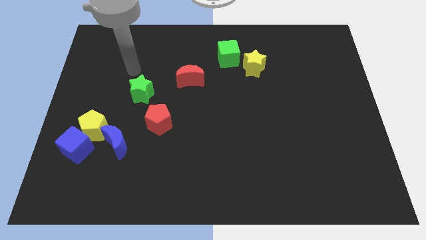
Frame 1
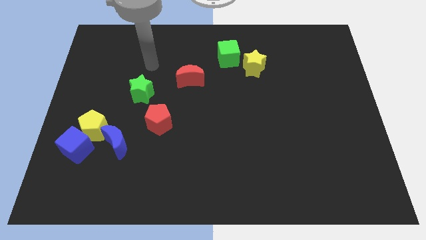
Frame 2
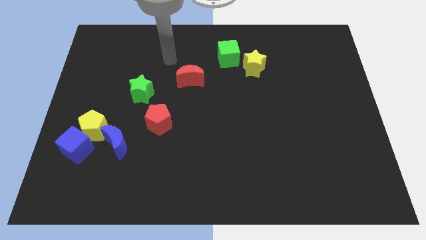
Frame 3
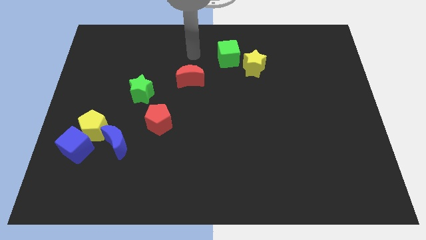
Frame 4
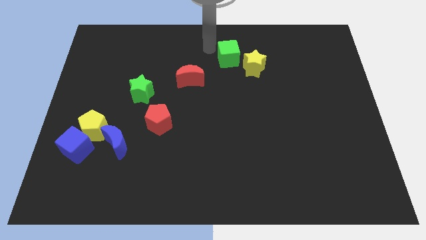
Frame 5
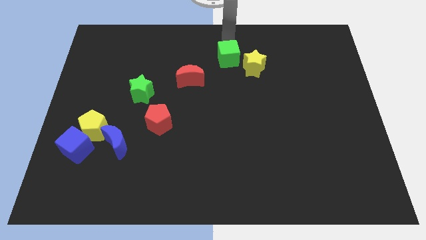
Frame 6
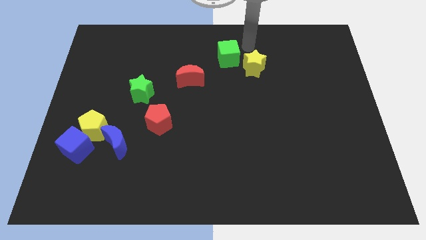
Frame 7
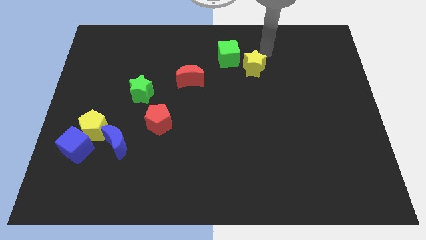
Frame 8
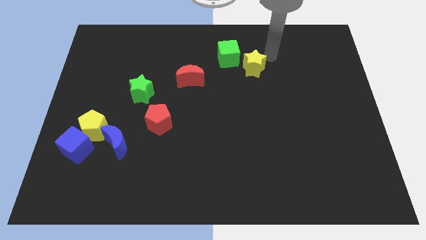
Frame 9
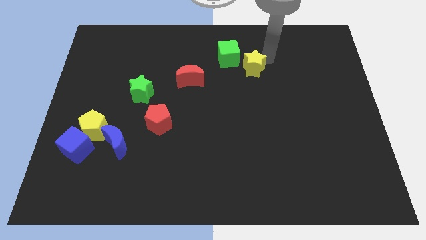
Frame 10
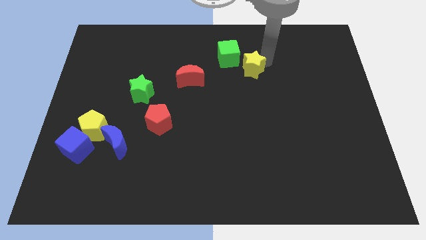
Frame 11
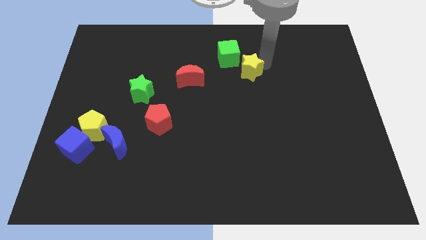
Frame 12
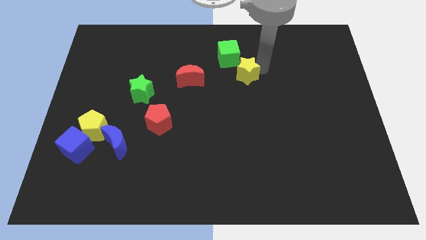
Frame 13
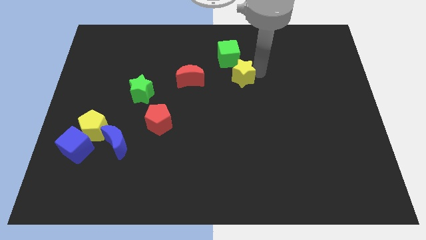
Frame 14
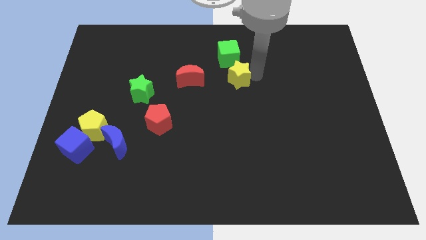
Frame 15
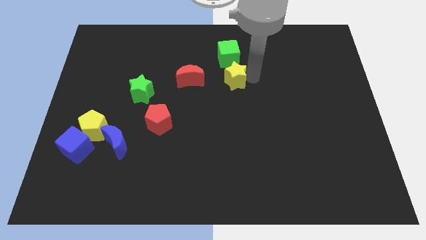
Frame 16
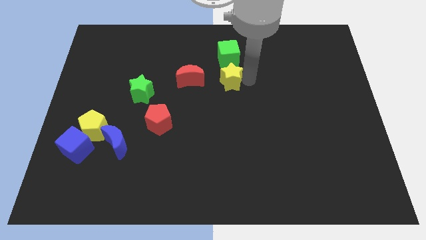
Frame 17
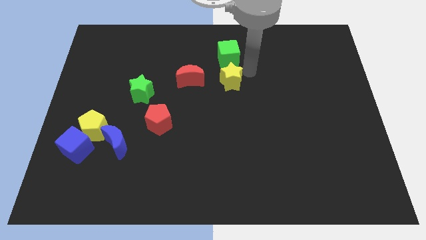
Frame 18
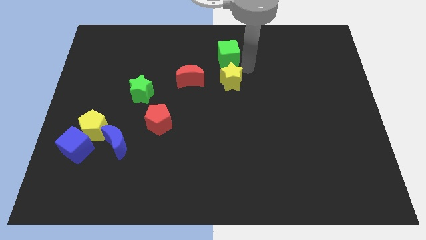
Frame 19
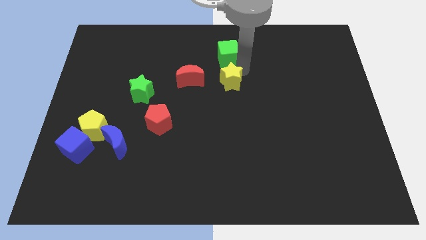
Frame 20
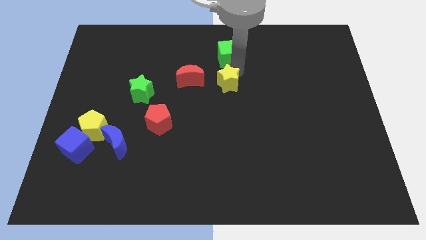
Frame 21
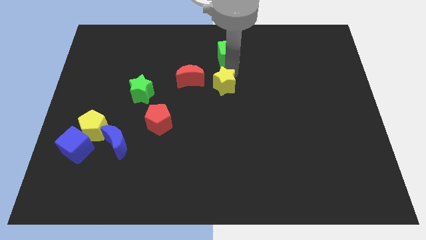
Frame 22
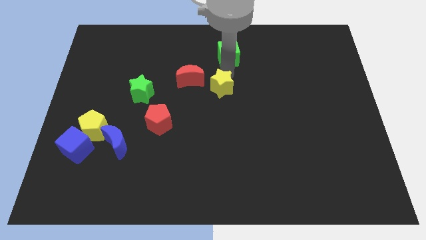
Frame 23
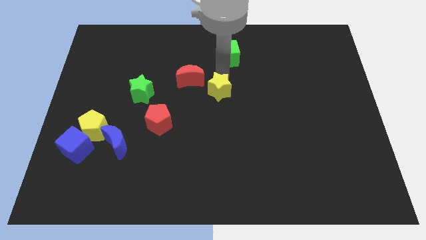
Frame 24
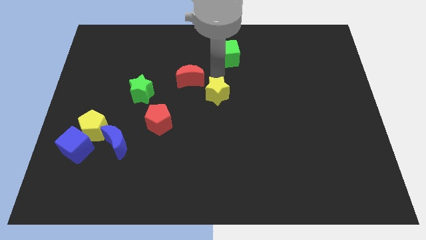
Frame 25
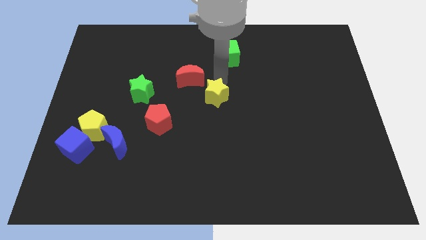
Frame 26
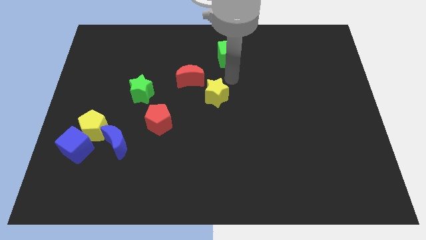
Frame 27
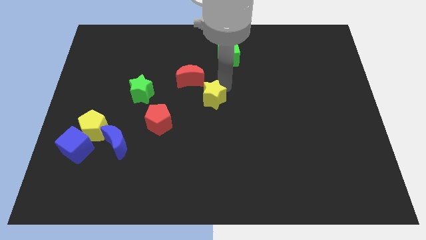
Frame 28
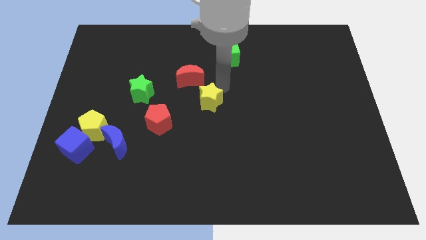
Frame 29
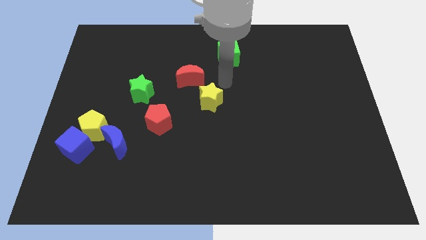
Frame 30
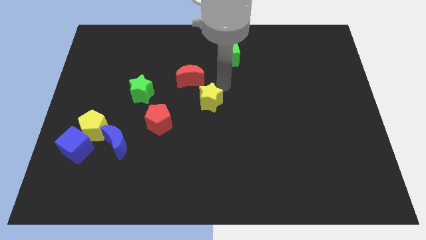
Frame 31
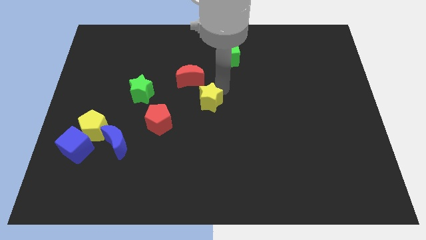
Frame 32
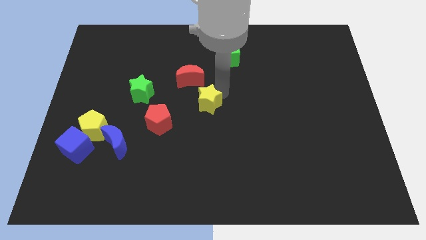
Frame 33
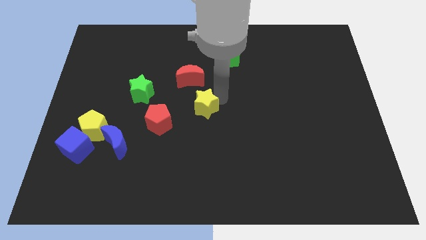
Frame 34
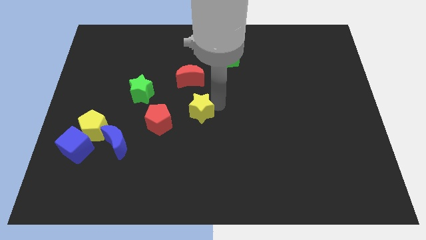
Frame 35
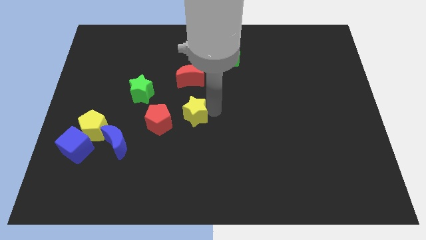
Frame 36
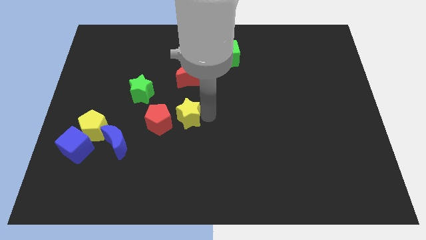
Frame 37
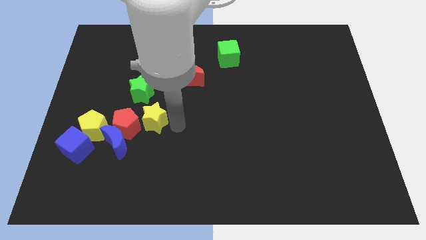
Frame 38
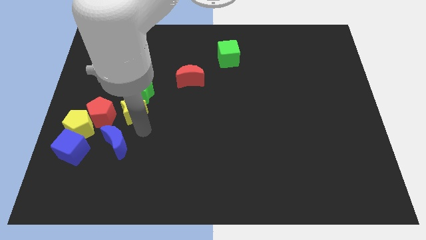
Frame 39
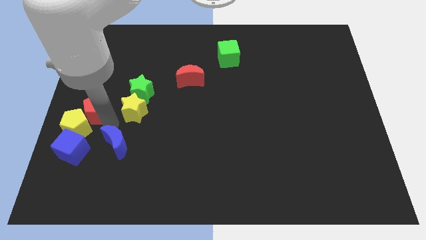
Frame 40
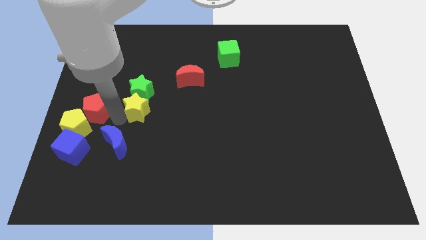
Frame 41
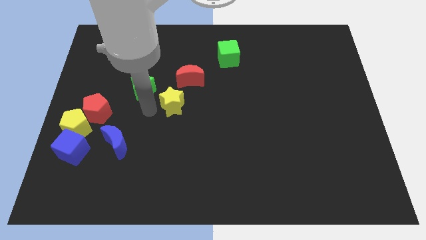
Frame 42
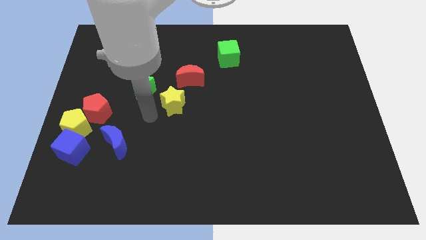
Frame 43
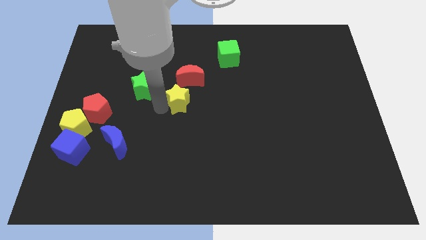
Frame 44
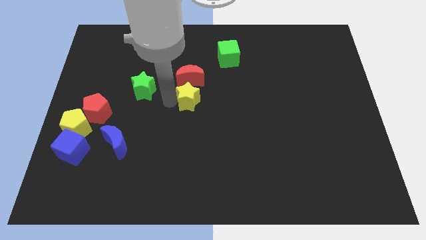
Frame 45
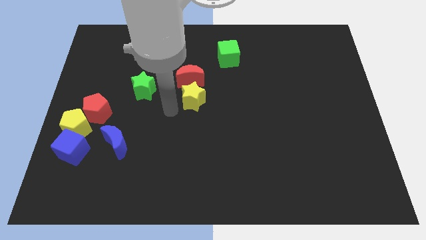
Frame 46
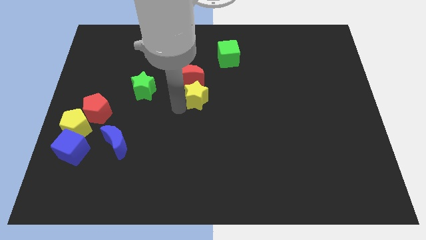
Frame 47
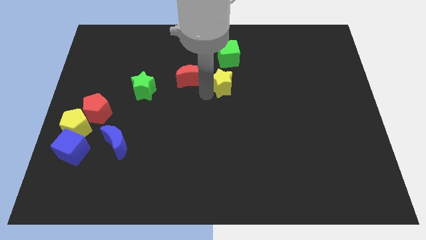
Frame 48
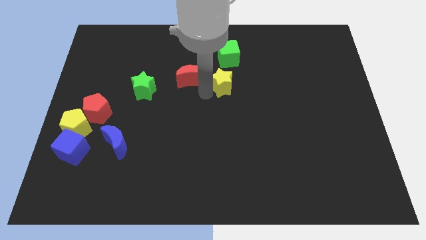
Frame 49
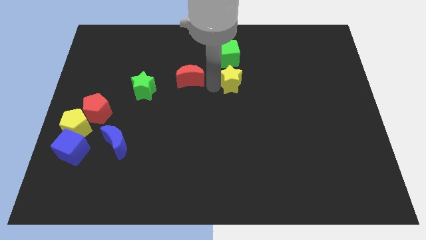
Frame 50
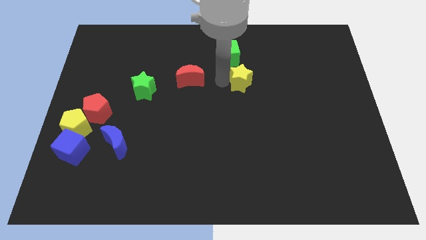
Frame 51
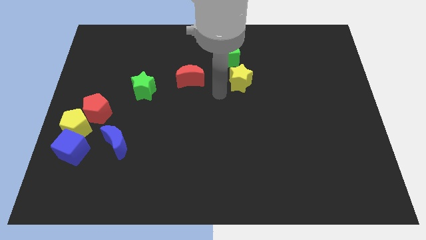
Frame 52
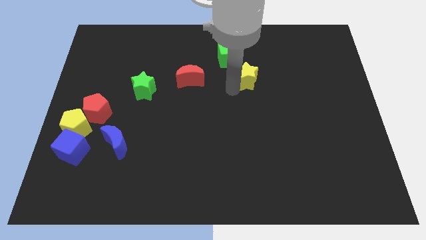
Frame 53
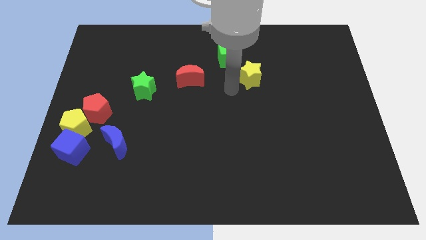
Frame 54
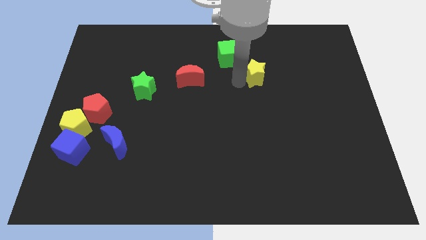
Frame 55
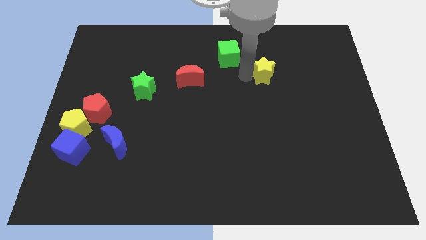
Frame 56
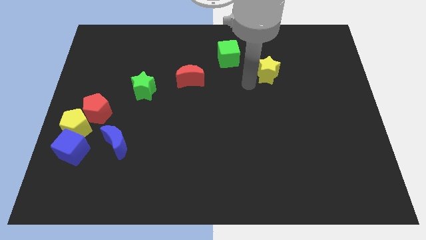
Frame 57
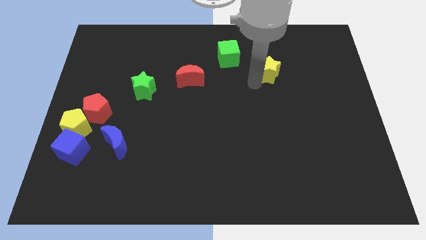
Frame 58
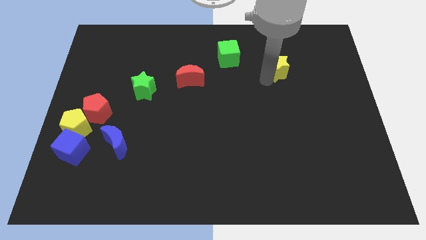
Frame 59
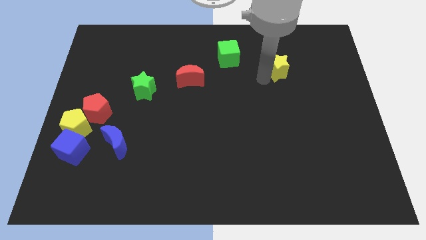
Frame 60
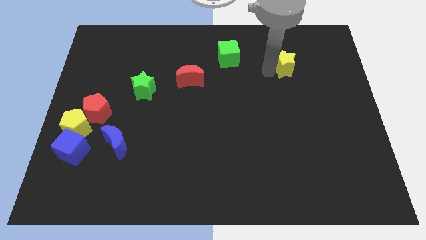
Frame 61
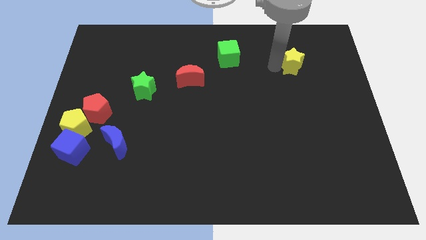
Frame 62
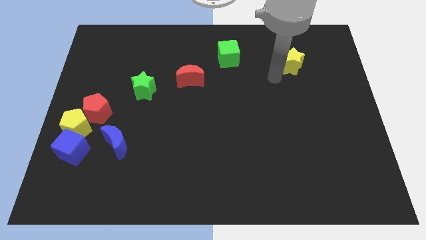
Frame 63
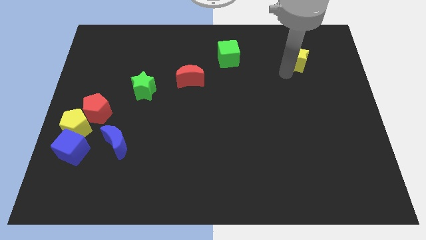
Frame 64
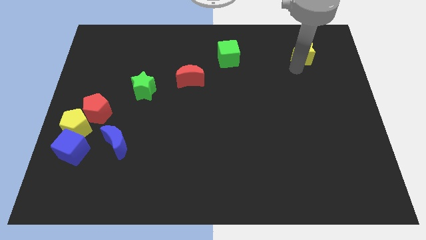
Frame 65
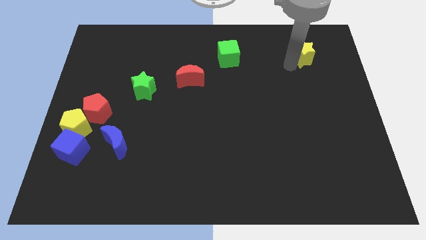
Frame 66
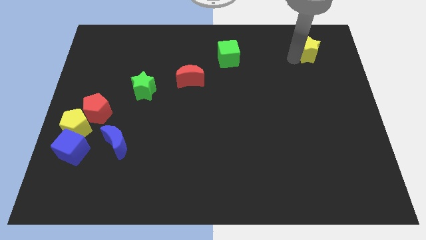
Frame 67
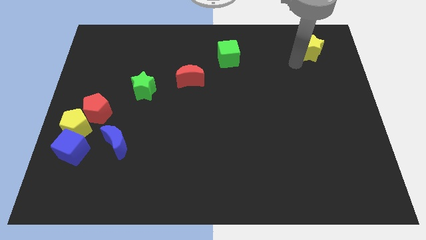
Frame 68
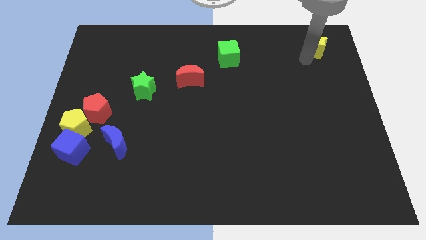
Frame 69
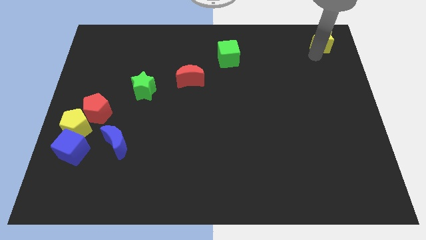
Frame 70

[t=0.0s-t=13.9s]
push the yellow star to the top right of the board
